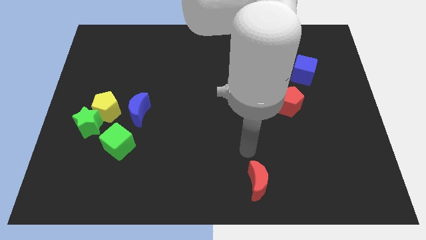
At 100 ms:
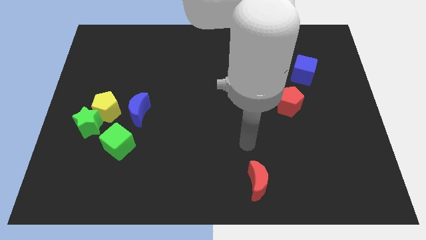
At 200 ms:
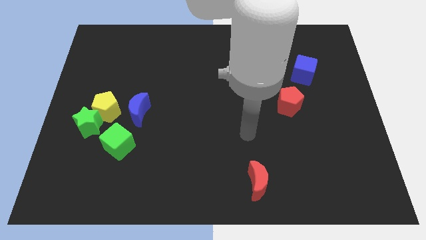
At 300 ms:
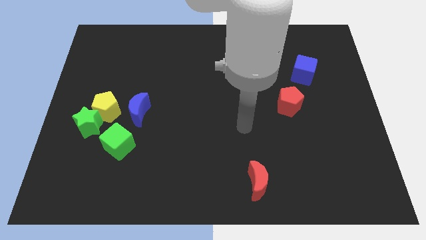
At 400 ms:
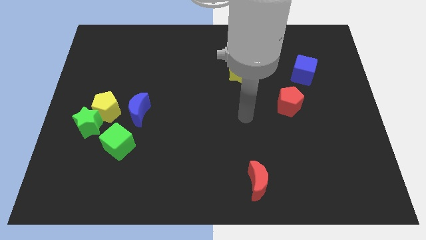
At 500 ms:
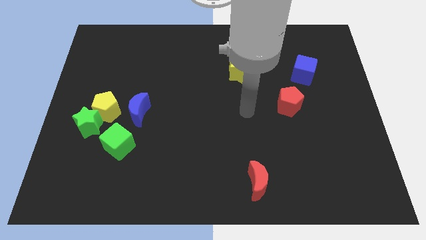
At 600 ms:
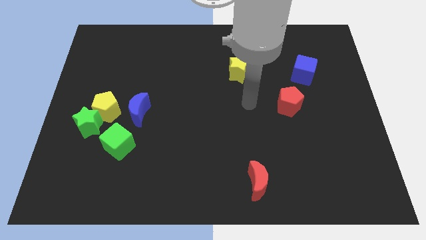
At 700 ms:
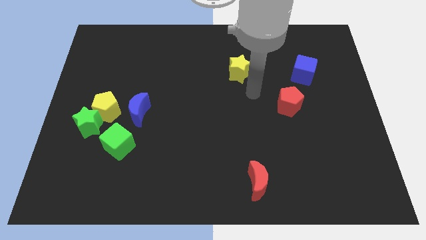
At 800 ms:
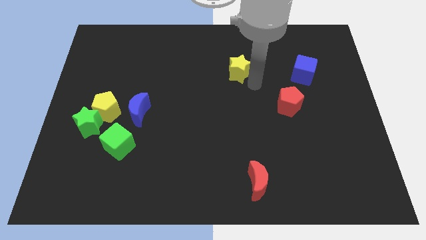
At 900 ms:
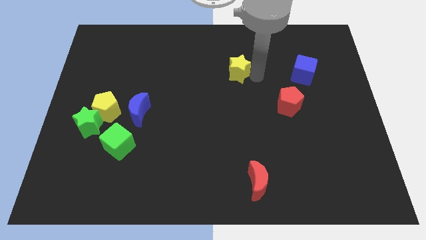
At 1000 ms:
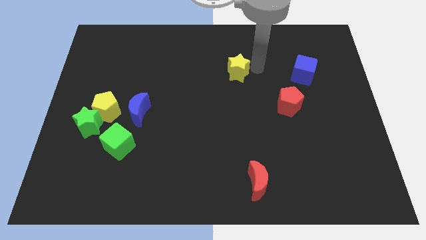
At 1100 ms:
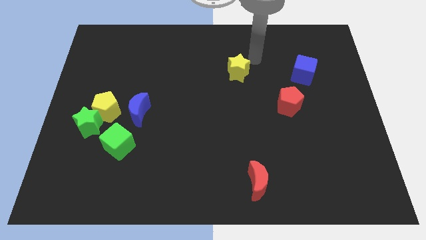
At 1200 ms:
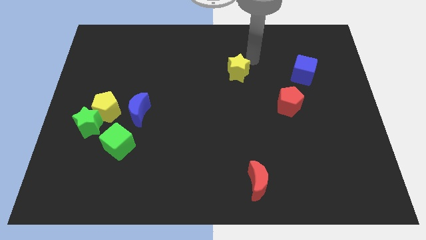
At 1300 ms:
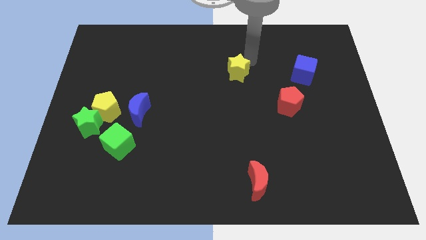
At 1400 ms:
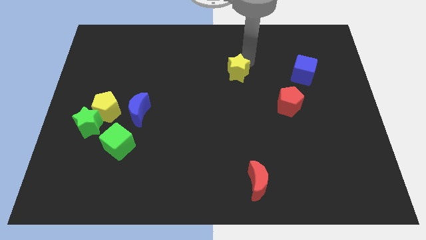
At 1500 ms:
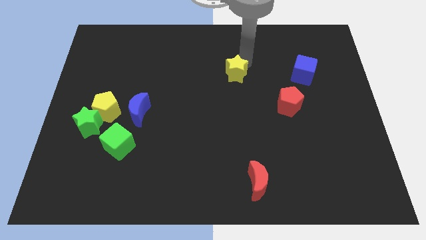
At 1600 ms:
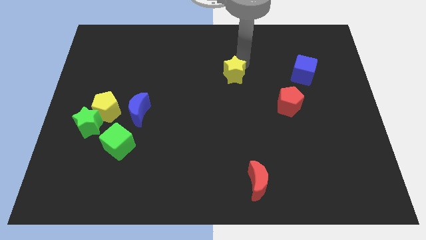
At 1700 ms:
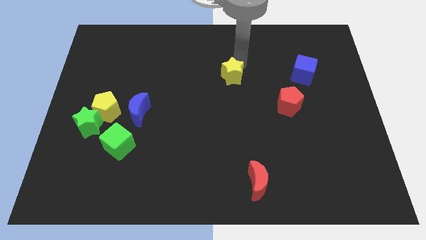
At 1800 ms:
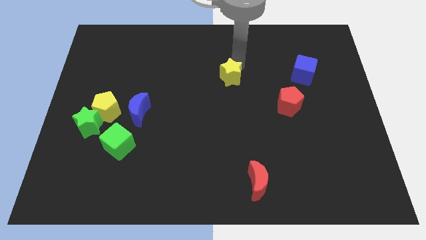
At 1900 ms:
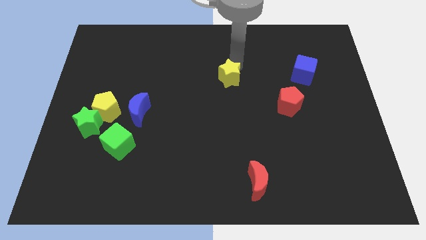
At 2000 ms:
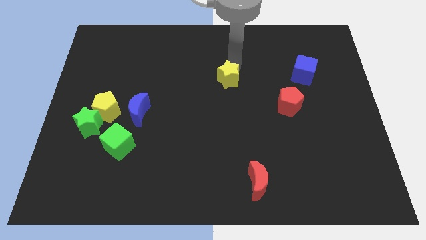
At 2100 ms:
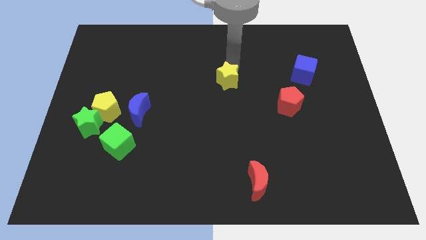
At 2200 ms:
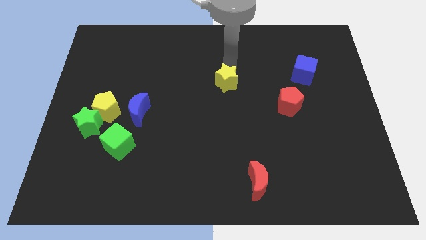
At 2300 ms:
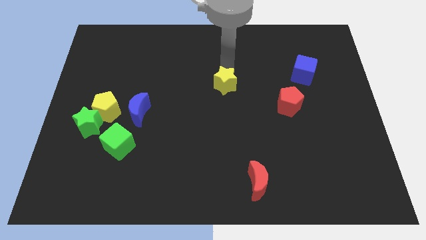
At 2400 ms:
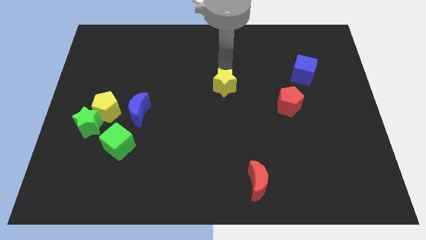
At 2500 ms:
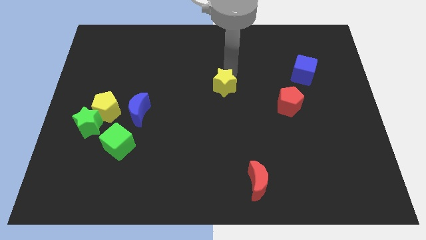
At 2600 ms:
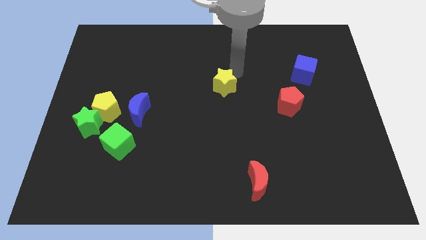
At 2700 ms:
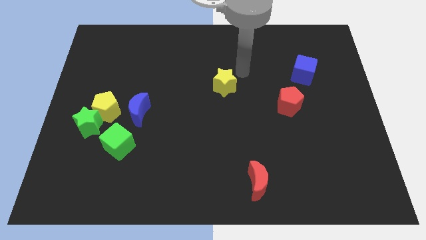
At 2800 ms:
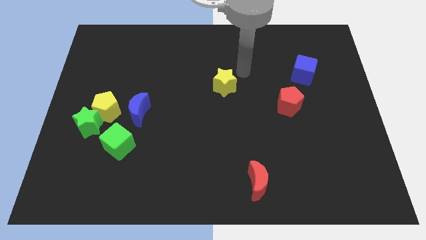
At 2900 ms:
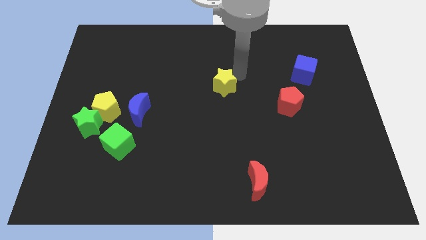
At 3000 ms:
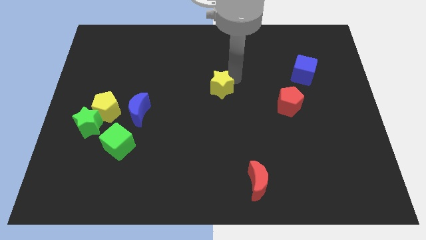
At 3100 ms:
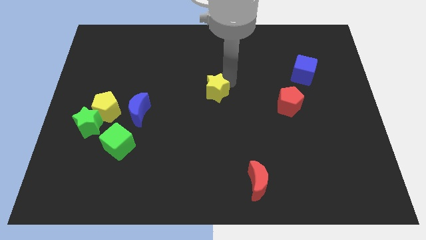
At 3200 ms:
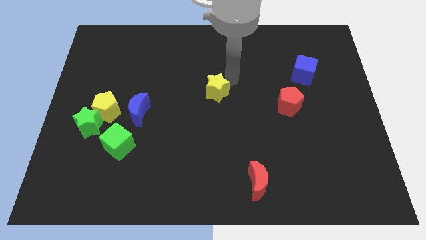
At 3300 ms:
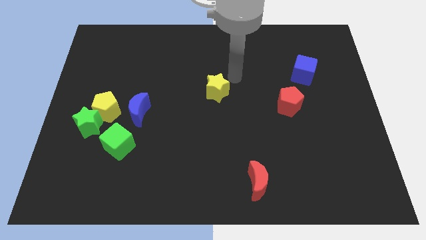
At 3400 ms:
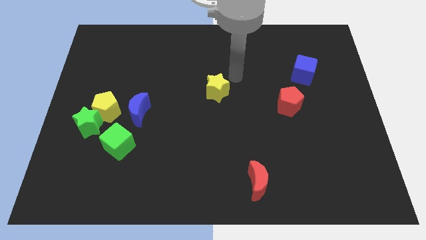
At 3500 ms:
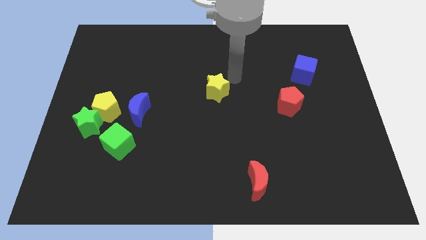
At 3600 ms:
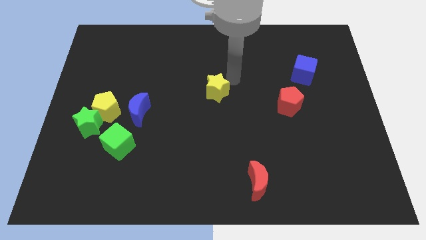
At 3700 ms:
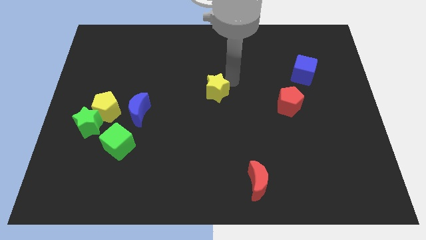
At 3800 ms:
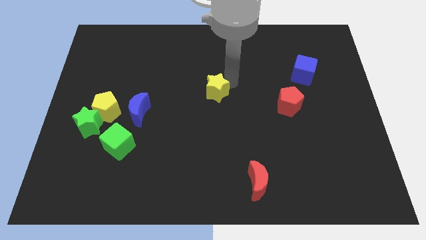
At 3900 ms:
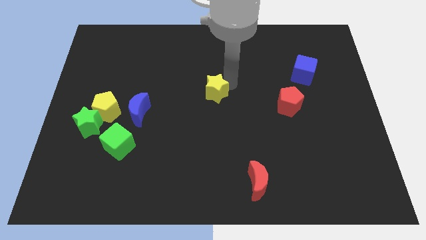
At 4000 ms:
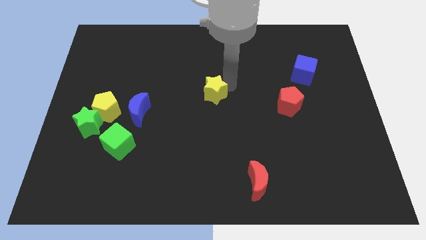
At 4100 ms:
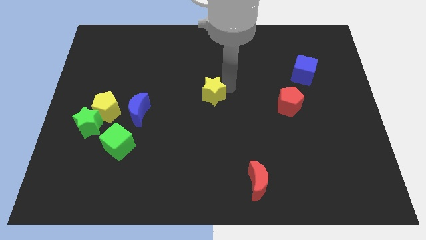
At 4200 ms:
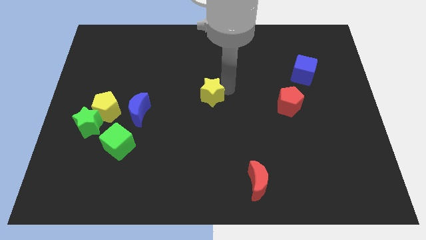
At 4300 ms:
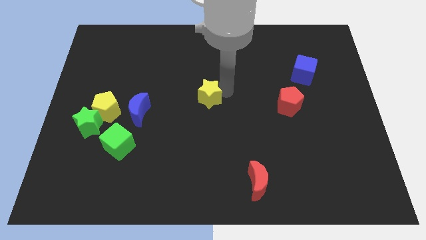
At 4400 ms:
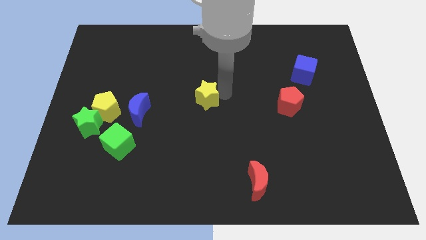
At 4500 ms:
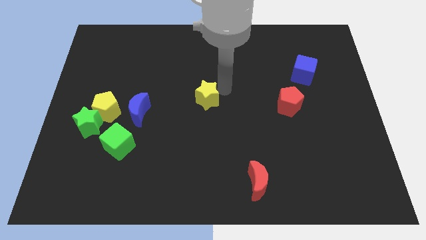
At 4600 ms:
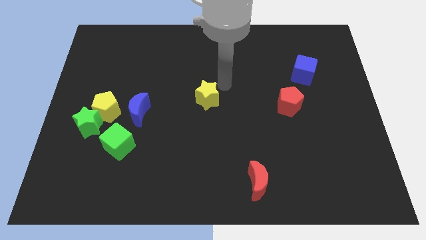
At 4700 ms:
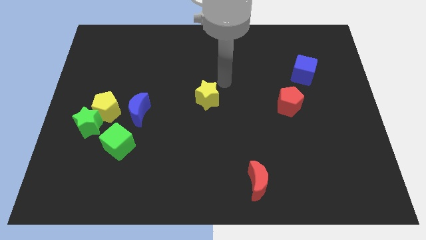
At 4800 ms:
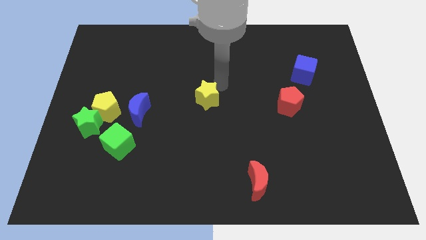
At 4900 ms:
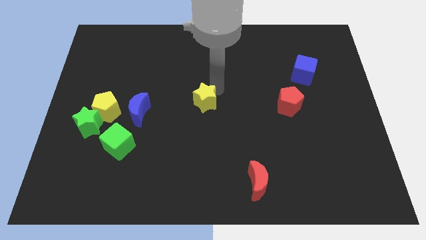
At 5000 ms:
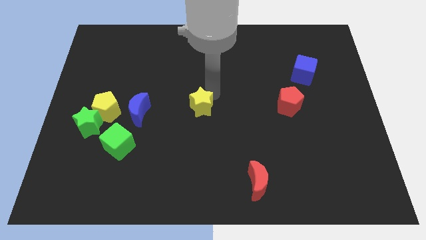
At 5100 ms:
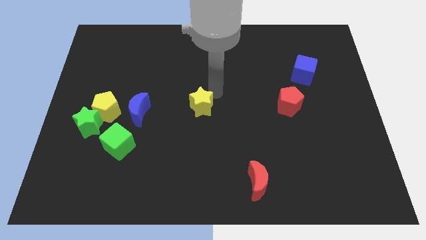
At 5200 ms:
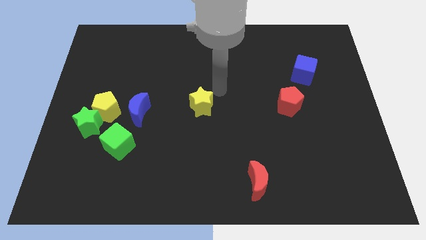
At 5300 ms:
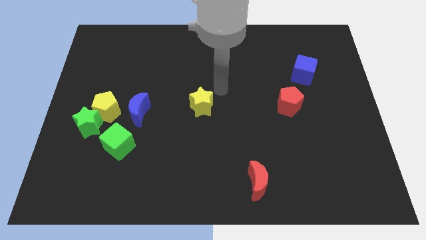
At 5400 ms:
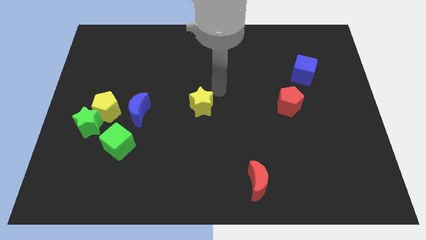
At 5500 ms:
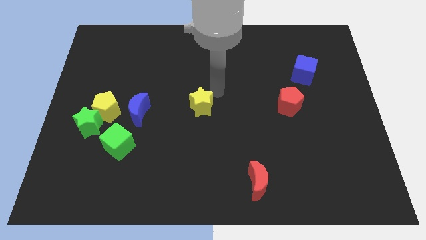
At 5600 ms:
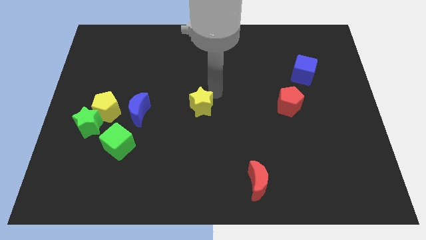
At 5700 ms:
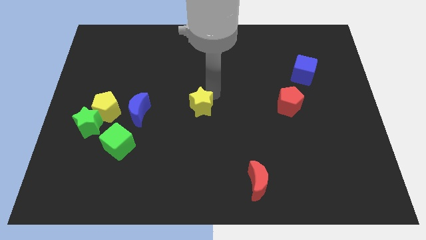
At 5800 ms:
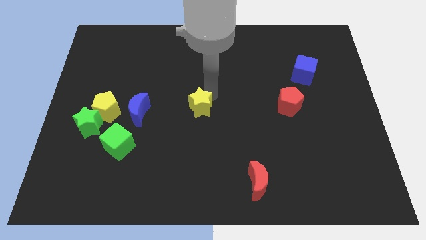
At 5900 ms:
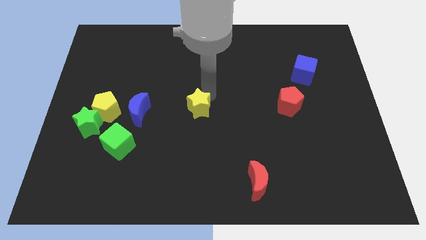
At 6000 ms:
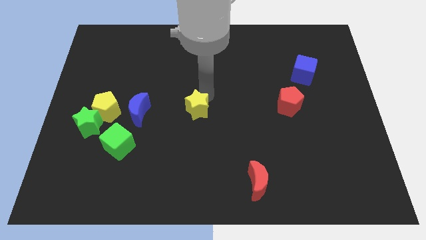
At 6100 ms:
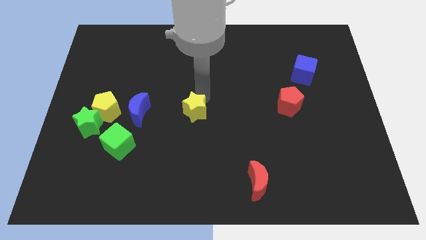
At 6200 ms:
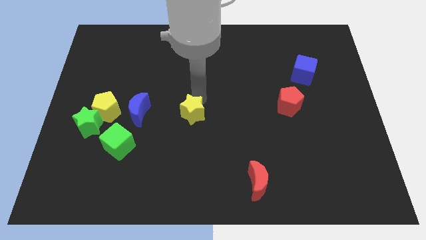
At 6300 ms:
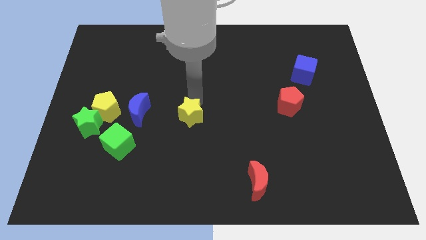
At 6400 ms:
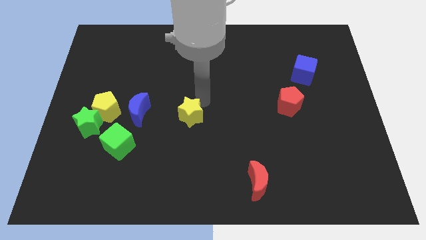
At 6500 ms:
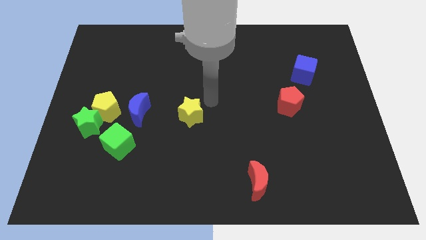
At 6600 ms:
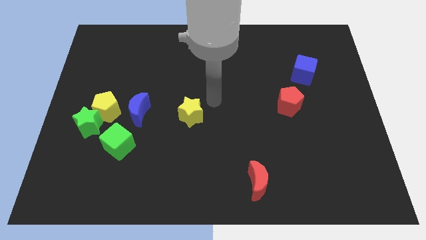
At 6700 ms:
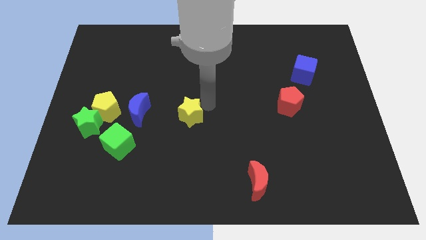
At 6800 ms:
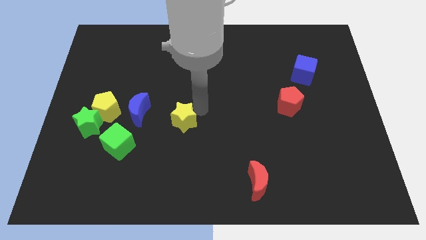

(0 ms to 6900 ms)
slide the yellow star diagonally down and left

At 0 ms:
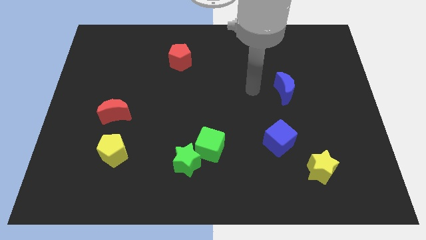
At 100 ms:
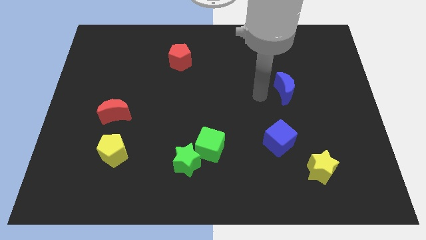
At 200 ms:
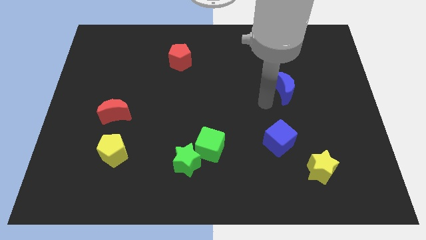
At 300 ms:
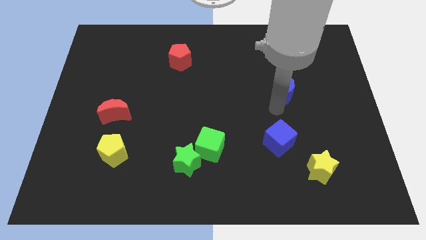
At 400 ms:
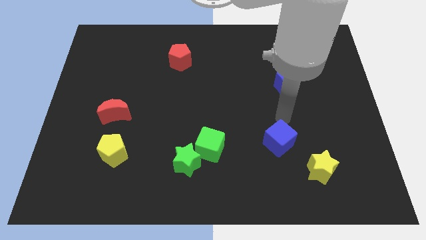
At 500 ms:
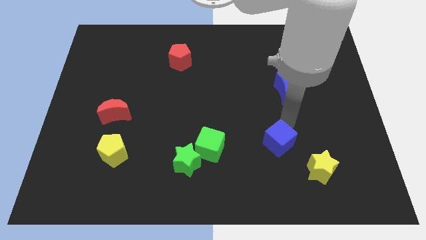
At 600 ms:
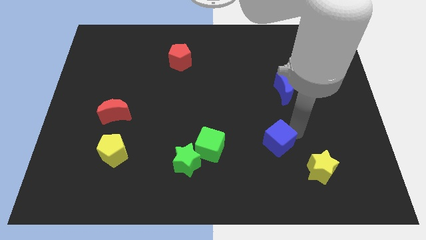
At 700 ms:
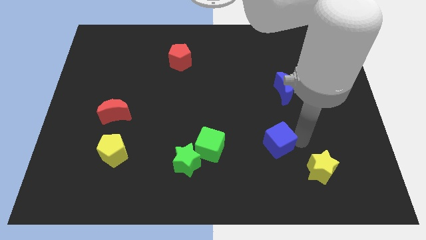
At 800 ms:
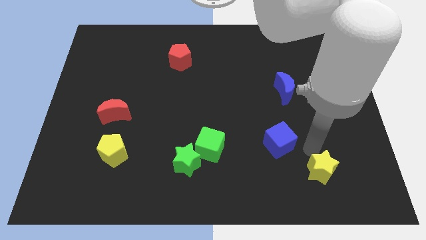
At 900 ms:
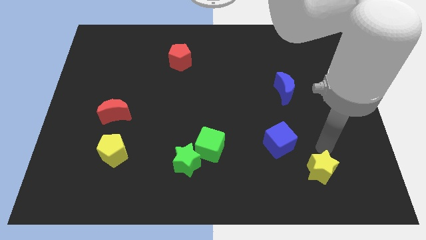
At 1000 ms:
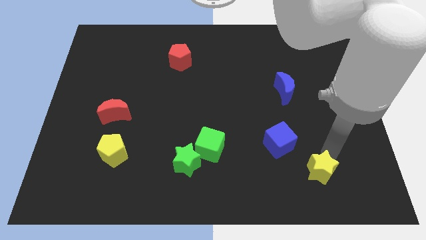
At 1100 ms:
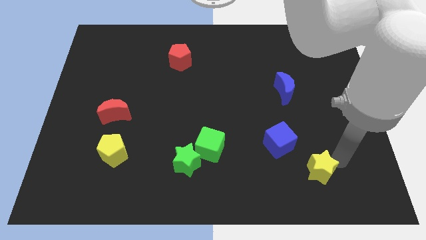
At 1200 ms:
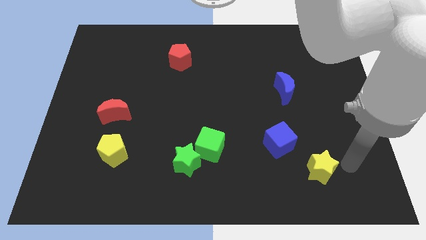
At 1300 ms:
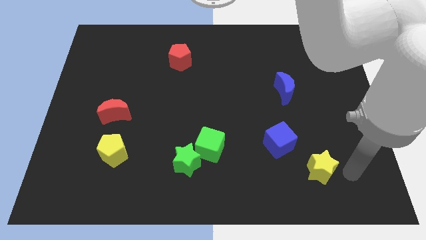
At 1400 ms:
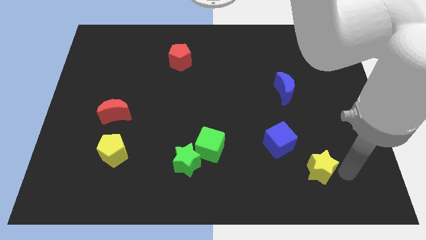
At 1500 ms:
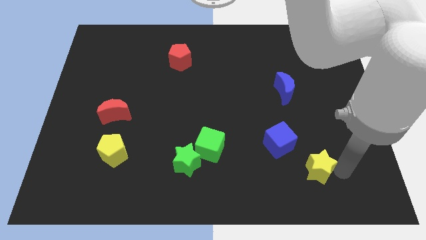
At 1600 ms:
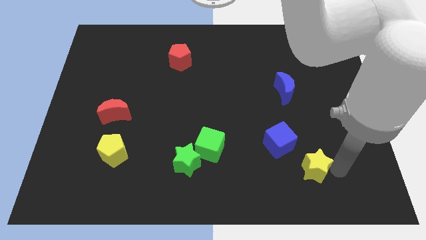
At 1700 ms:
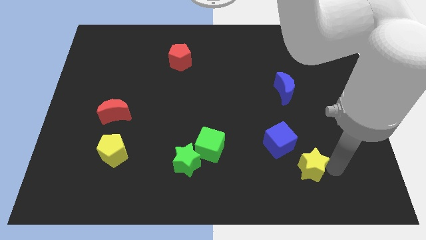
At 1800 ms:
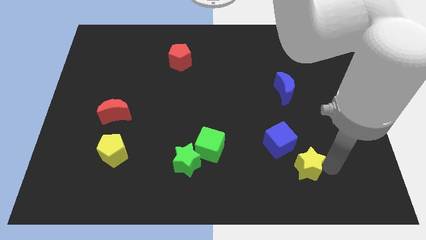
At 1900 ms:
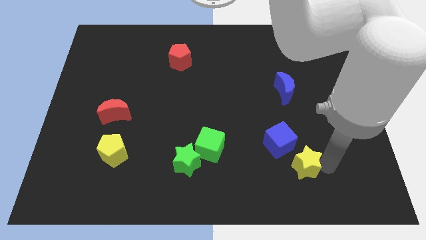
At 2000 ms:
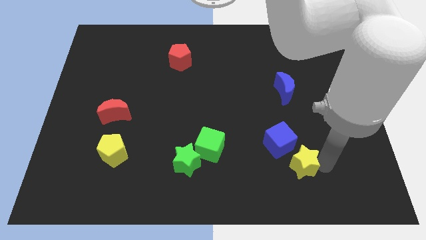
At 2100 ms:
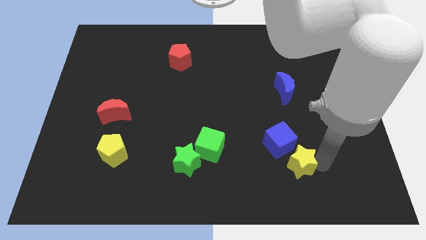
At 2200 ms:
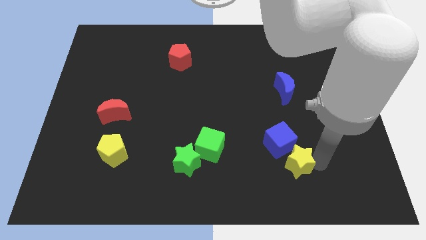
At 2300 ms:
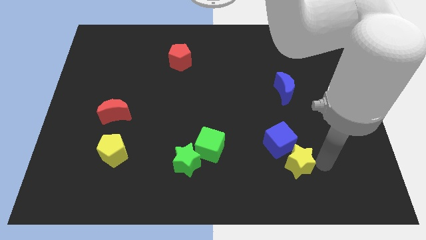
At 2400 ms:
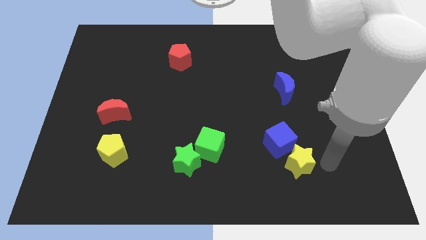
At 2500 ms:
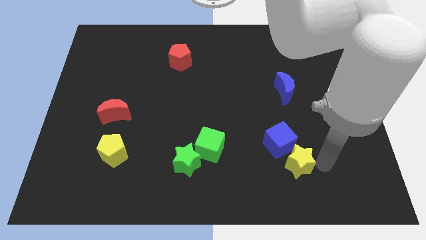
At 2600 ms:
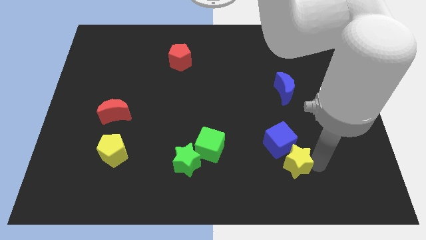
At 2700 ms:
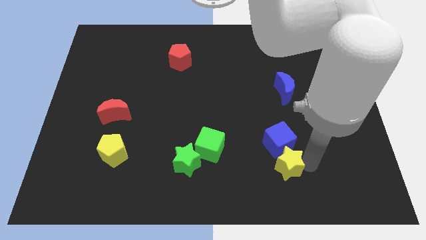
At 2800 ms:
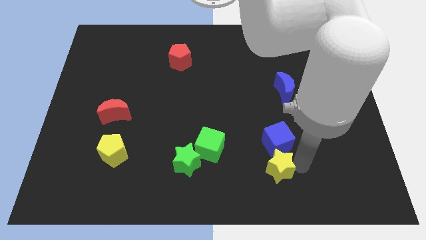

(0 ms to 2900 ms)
move the yellow star a little to the left
